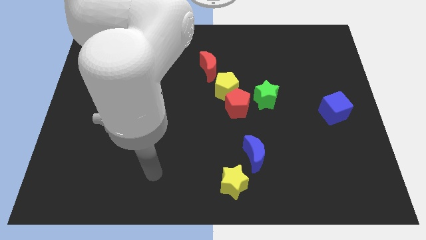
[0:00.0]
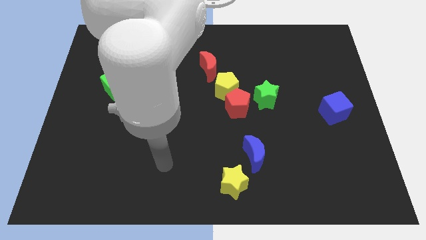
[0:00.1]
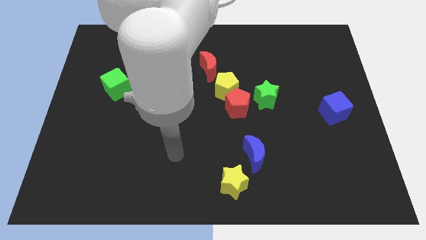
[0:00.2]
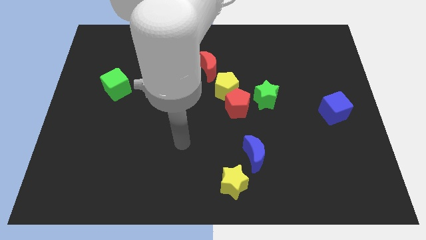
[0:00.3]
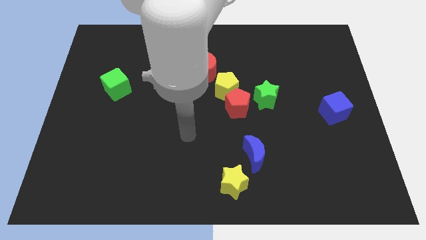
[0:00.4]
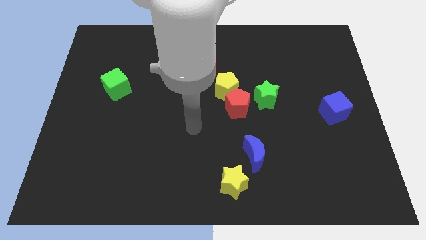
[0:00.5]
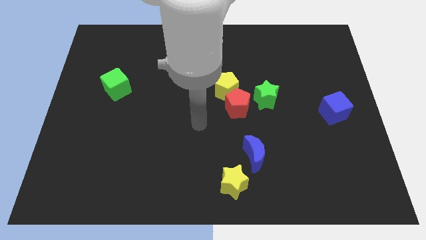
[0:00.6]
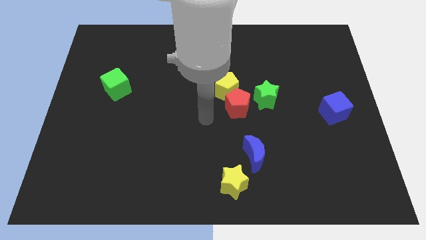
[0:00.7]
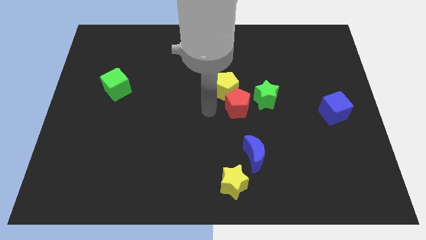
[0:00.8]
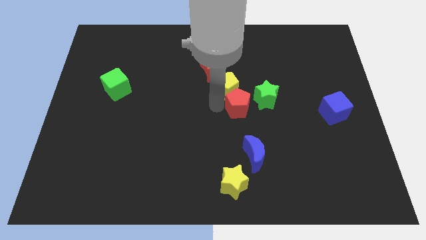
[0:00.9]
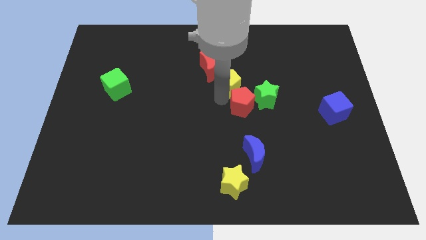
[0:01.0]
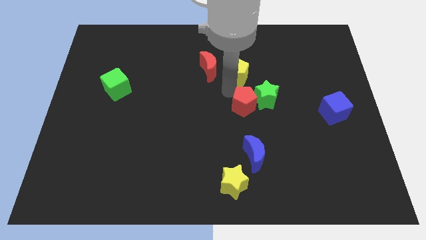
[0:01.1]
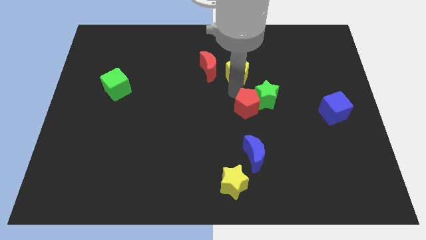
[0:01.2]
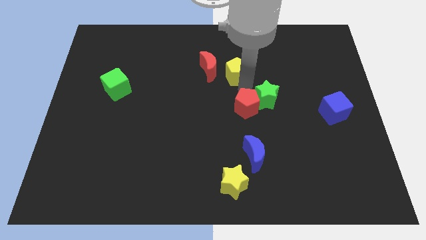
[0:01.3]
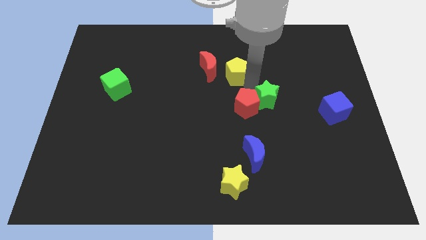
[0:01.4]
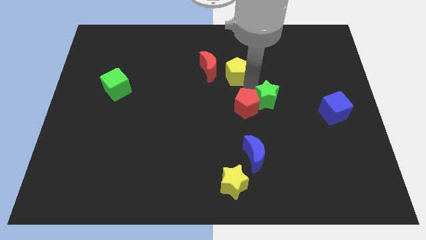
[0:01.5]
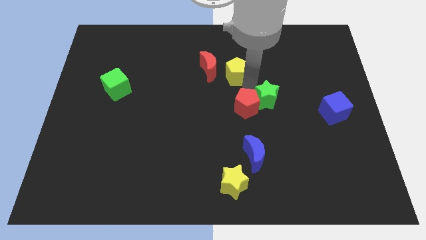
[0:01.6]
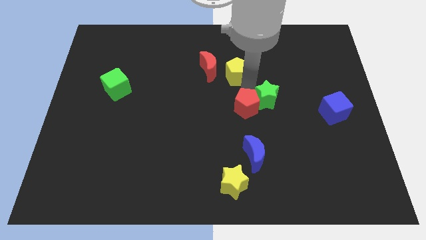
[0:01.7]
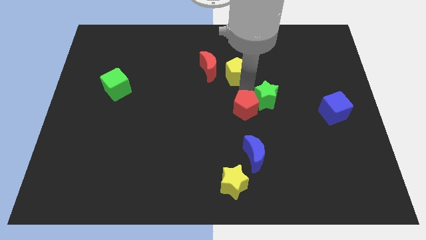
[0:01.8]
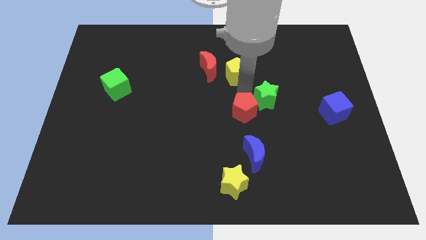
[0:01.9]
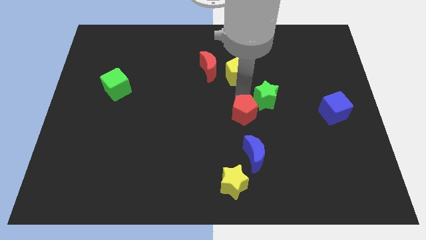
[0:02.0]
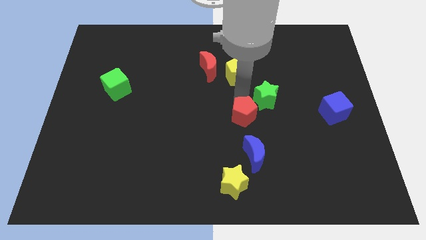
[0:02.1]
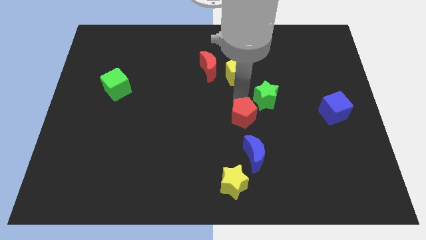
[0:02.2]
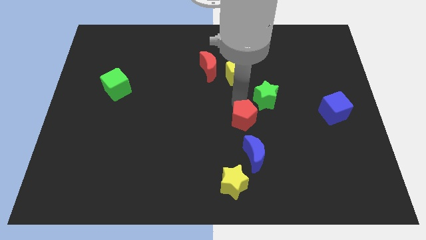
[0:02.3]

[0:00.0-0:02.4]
move the red pentagon away from the yellow pentagon and green star

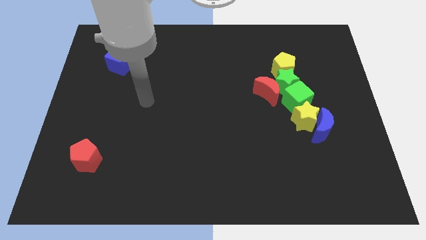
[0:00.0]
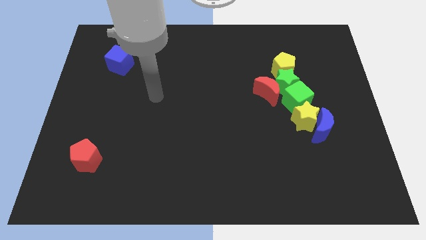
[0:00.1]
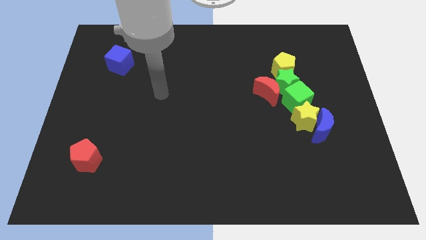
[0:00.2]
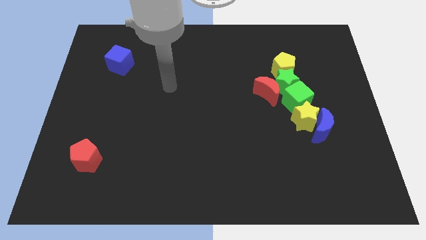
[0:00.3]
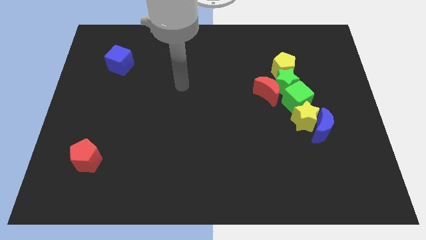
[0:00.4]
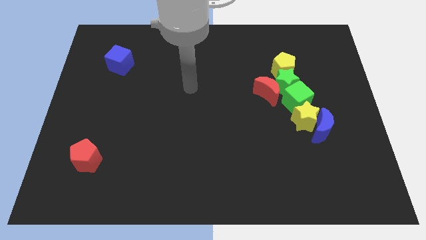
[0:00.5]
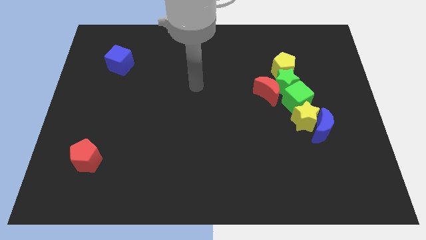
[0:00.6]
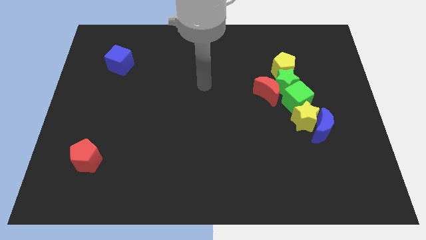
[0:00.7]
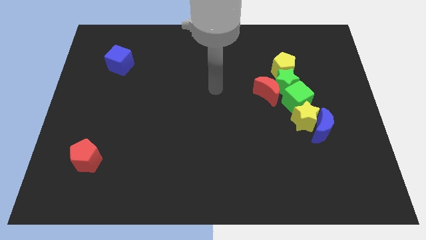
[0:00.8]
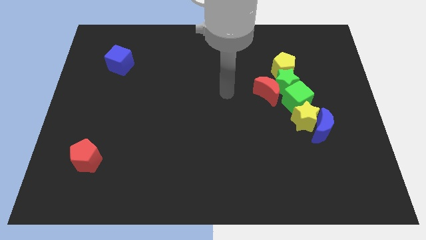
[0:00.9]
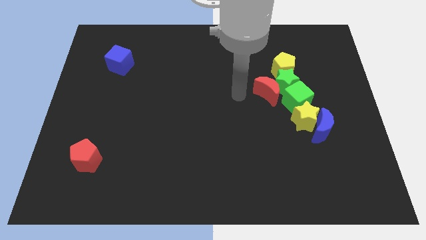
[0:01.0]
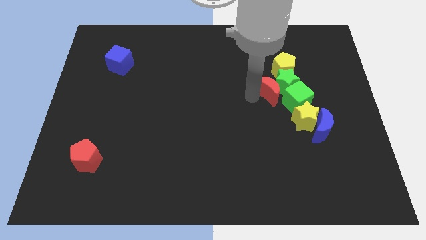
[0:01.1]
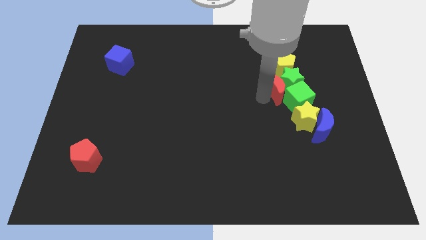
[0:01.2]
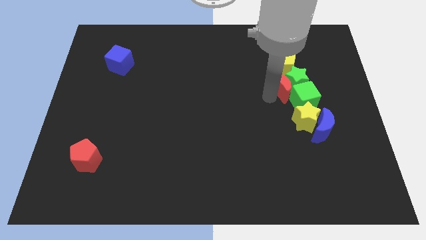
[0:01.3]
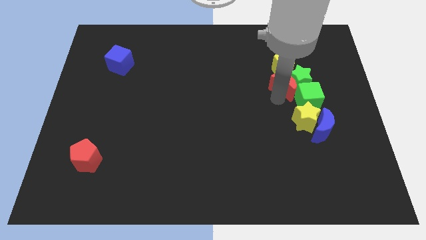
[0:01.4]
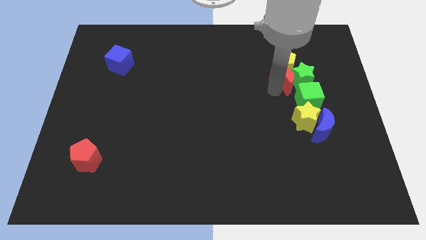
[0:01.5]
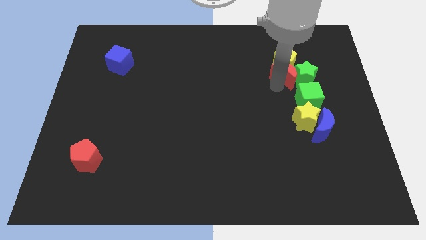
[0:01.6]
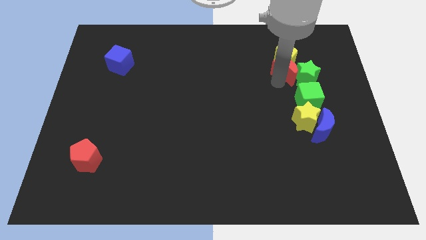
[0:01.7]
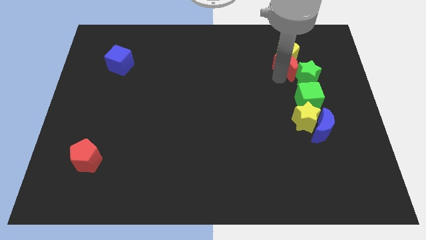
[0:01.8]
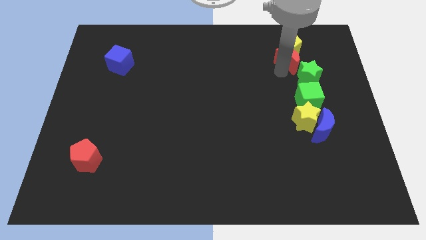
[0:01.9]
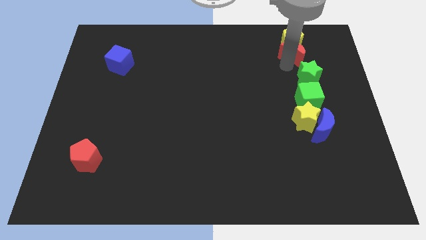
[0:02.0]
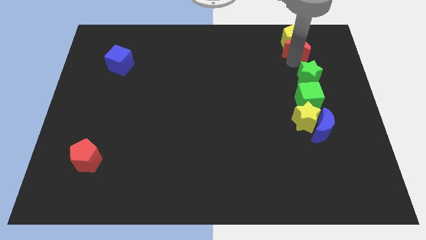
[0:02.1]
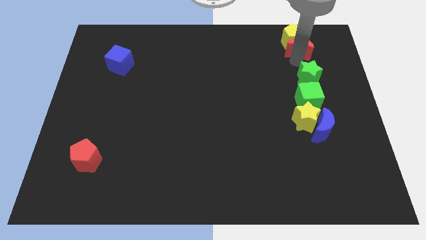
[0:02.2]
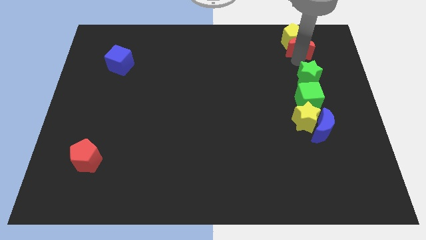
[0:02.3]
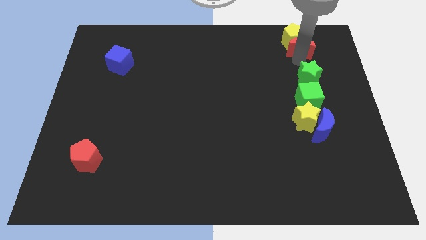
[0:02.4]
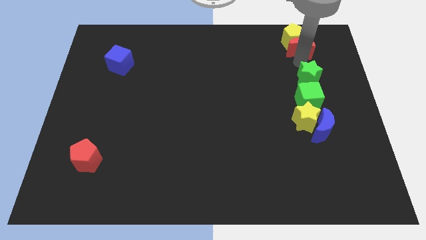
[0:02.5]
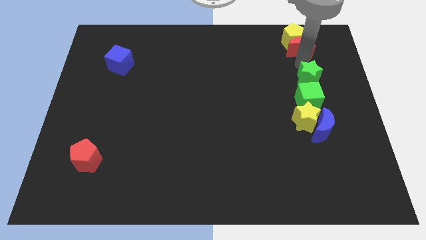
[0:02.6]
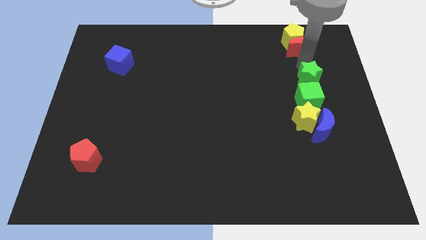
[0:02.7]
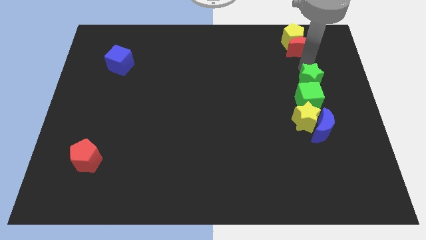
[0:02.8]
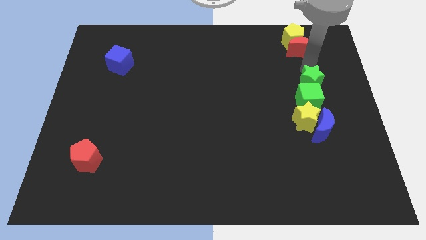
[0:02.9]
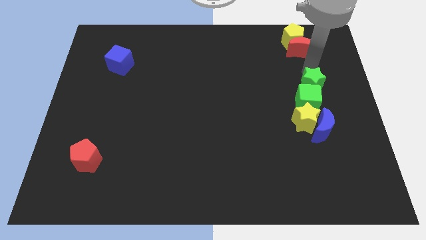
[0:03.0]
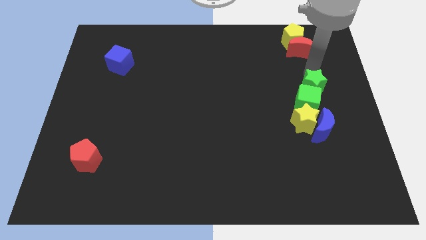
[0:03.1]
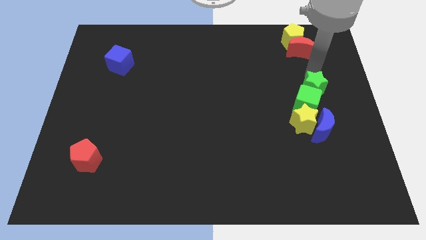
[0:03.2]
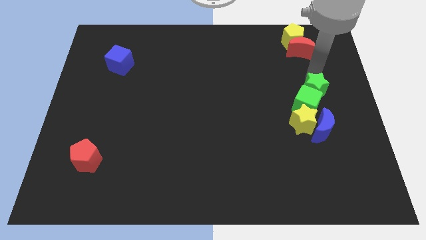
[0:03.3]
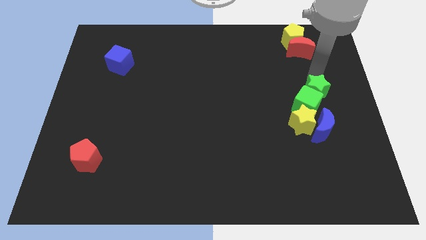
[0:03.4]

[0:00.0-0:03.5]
pull the green star apart from the red moon, green cube, and yellow pentagon

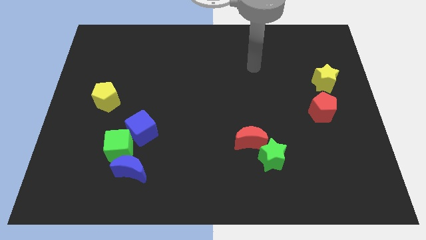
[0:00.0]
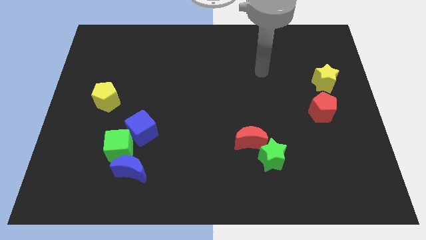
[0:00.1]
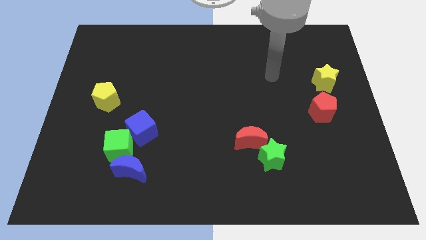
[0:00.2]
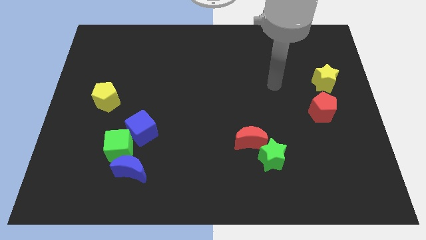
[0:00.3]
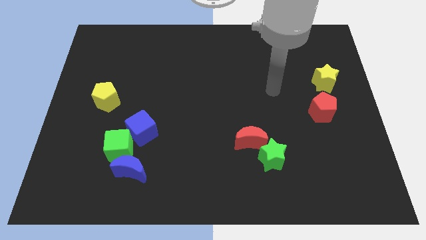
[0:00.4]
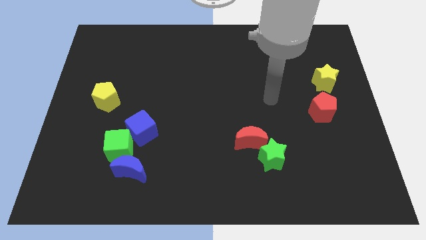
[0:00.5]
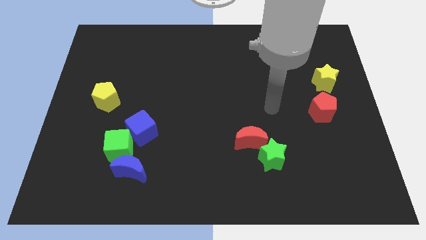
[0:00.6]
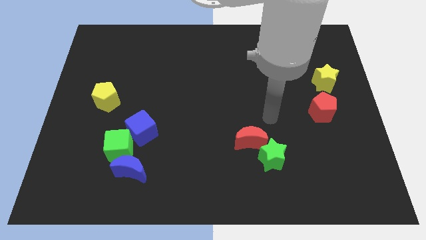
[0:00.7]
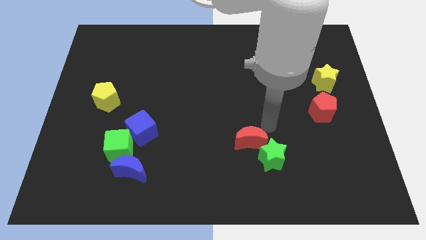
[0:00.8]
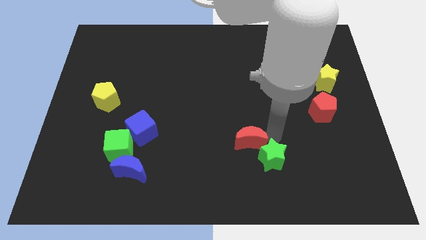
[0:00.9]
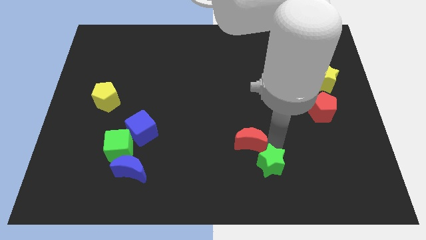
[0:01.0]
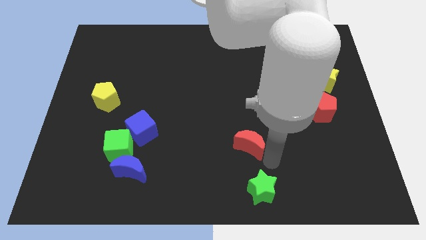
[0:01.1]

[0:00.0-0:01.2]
pull the red moon apart from the green star

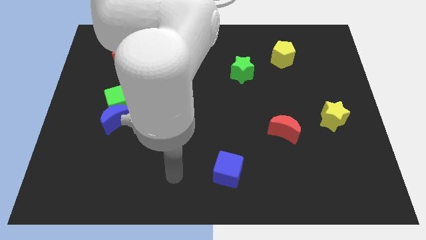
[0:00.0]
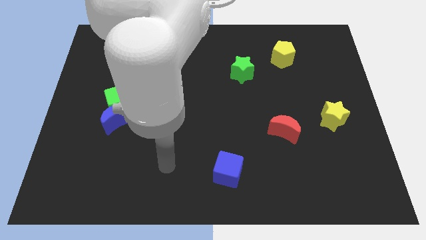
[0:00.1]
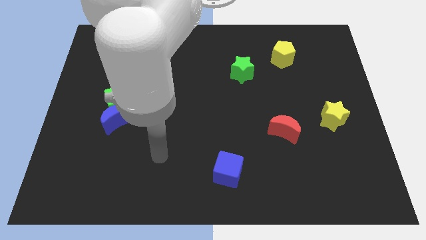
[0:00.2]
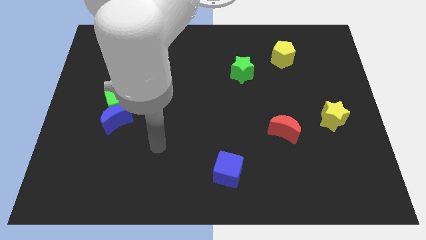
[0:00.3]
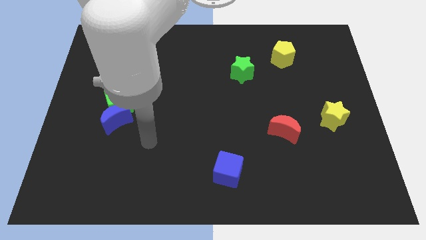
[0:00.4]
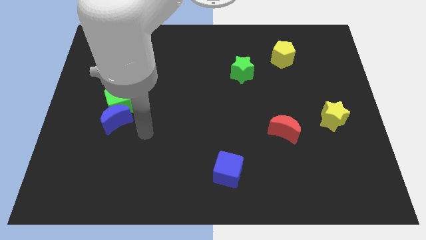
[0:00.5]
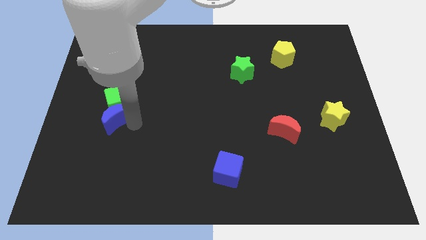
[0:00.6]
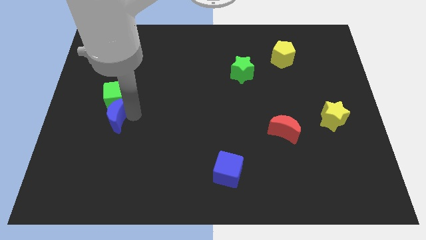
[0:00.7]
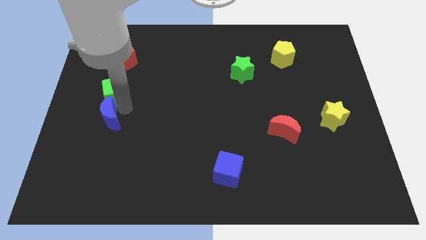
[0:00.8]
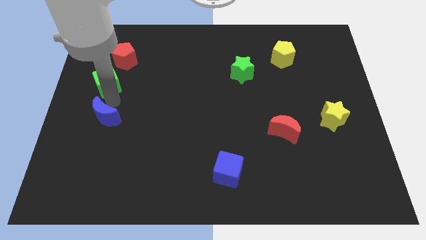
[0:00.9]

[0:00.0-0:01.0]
separate the blue moon from the green cube

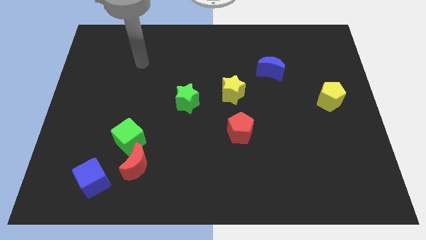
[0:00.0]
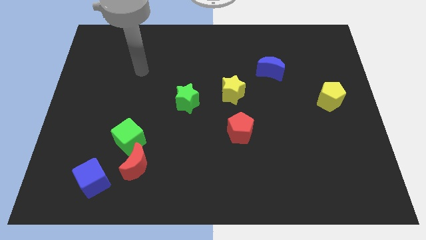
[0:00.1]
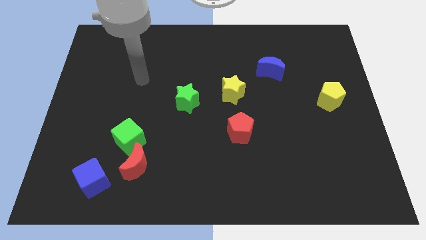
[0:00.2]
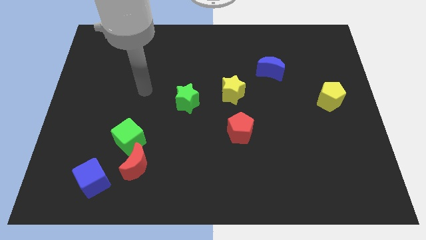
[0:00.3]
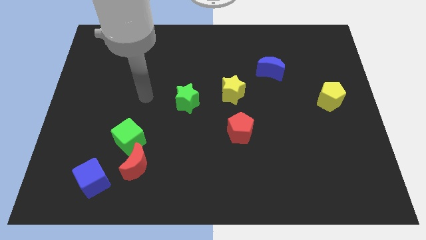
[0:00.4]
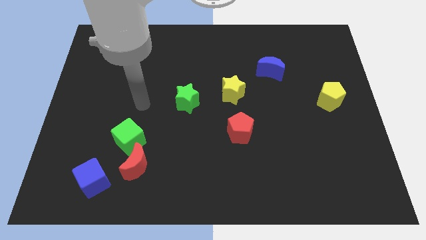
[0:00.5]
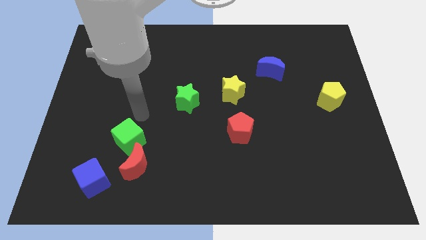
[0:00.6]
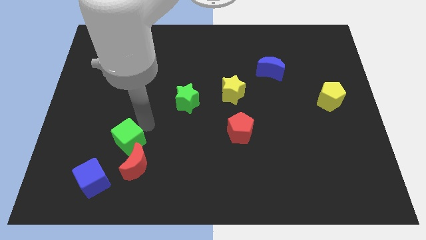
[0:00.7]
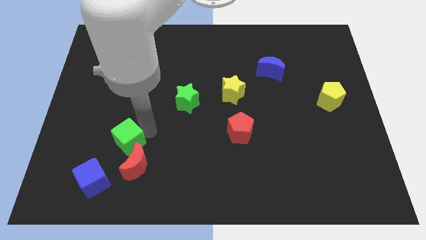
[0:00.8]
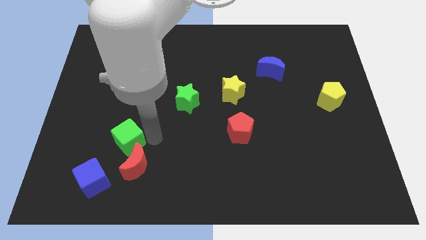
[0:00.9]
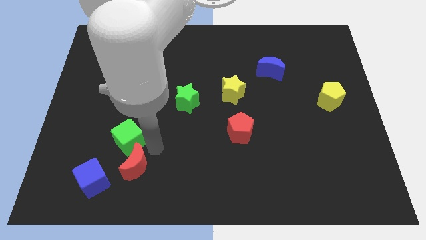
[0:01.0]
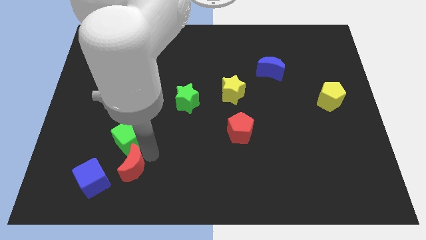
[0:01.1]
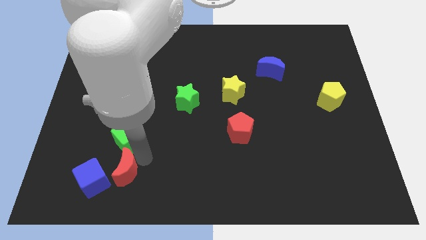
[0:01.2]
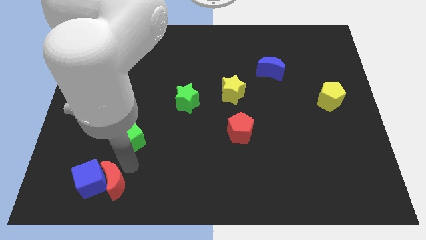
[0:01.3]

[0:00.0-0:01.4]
pull the green cube apart from the red moon
